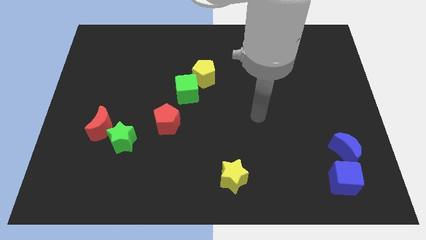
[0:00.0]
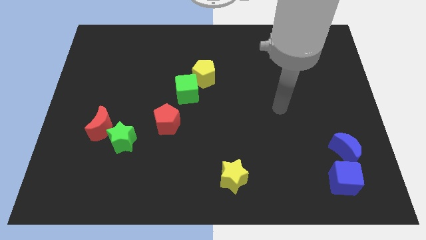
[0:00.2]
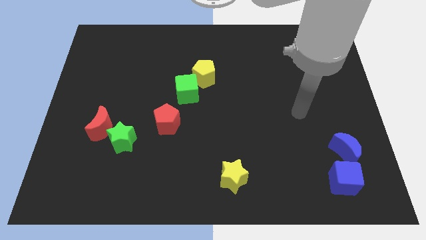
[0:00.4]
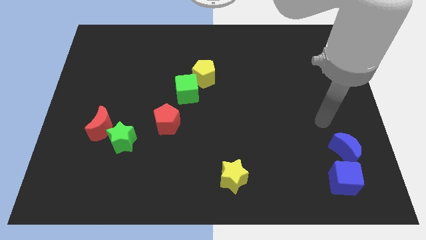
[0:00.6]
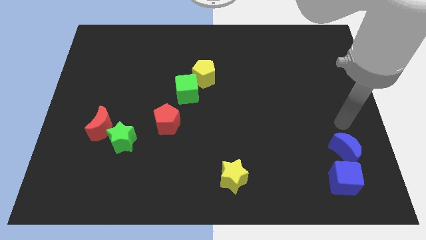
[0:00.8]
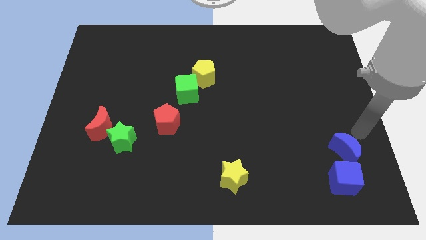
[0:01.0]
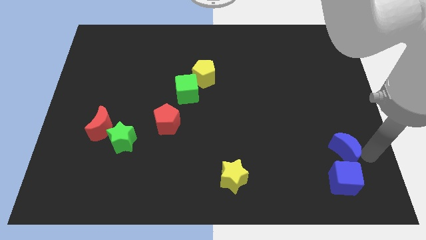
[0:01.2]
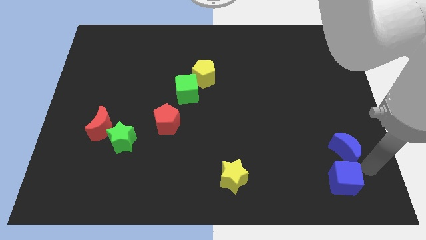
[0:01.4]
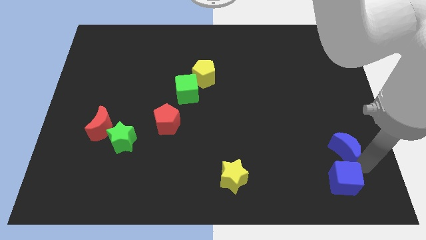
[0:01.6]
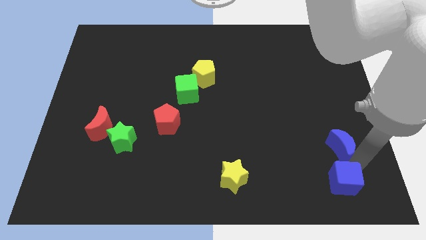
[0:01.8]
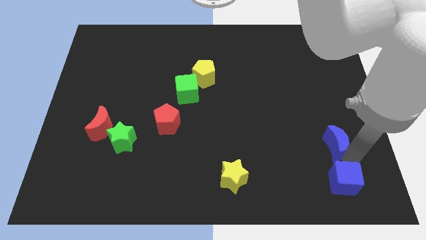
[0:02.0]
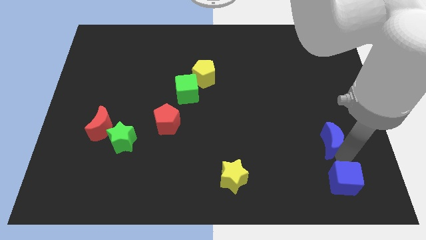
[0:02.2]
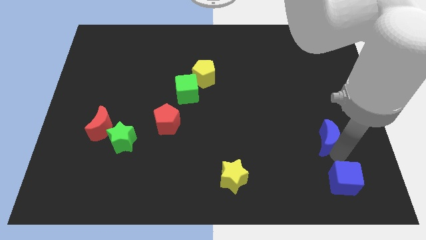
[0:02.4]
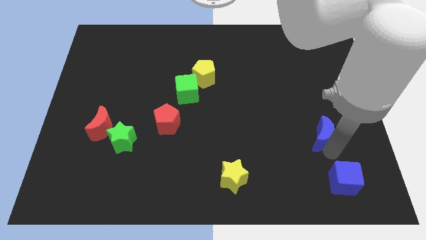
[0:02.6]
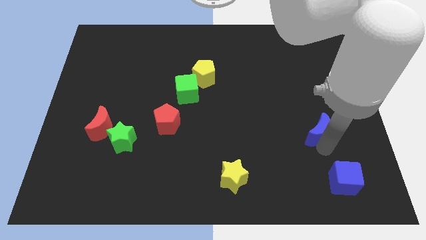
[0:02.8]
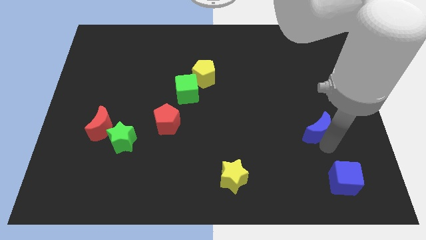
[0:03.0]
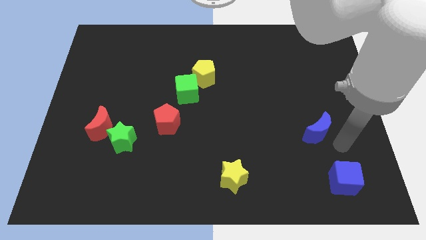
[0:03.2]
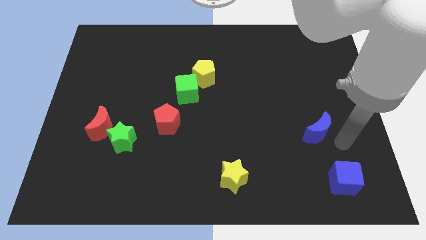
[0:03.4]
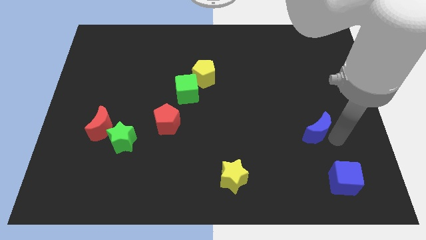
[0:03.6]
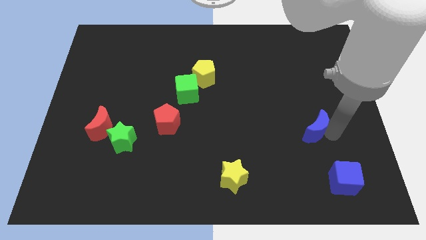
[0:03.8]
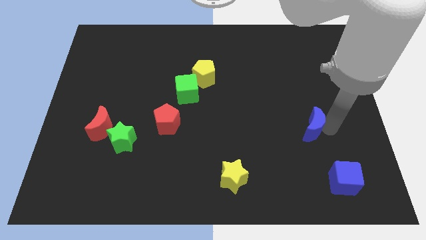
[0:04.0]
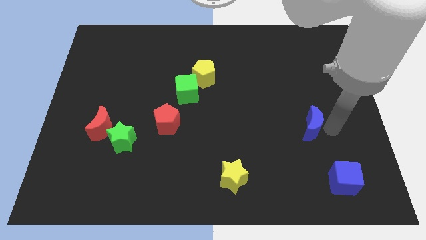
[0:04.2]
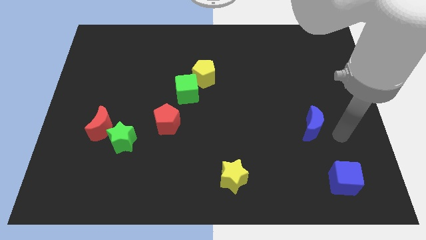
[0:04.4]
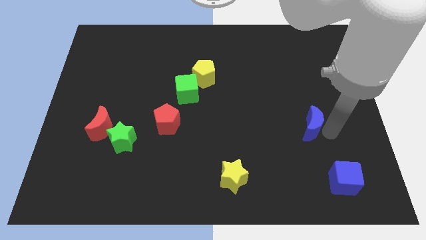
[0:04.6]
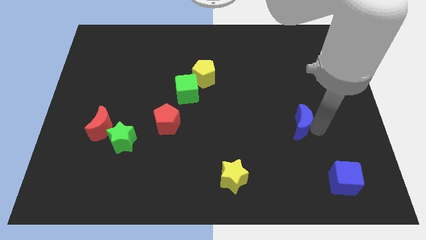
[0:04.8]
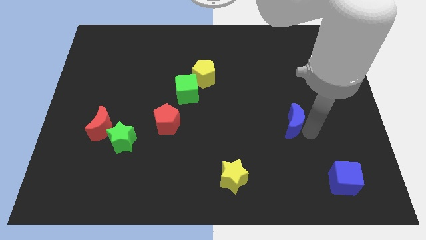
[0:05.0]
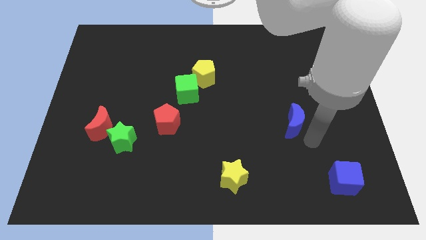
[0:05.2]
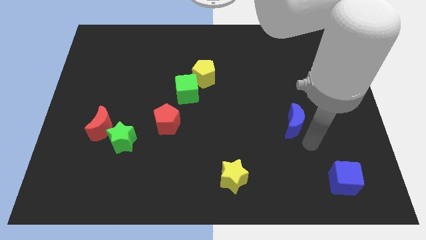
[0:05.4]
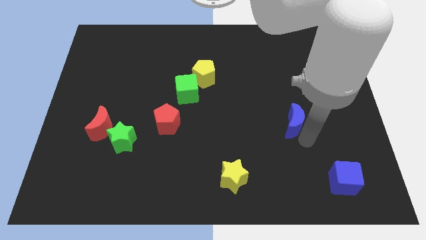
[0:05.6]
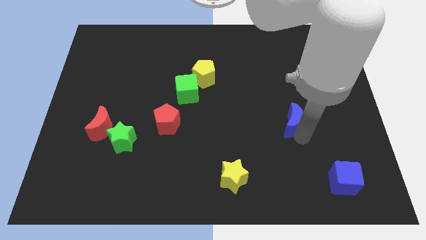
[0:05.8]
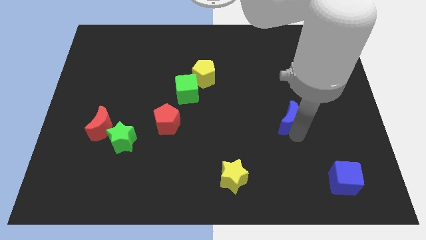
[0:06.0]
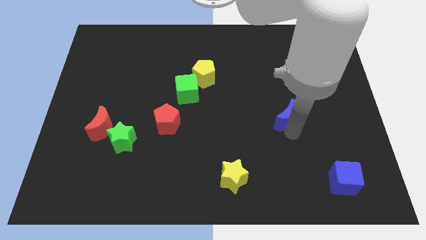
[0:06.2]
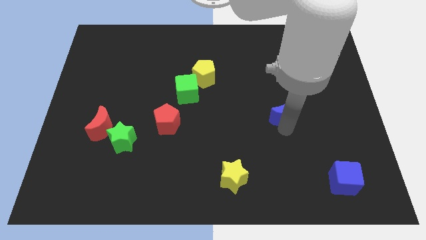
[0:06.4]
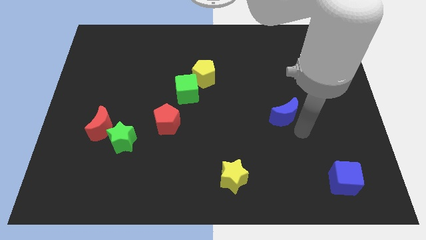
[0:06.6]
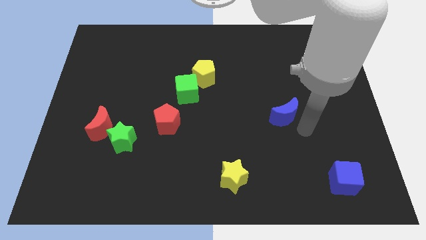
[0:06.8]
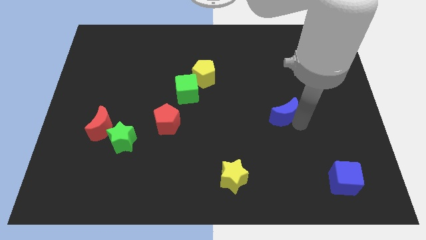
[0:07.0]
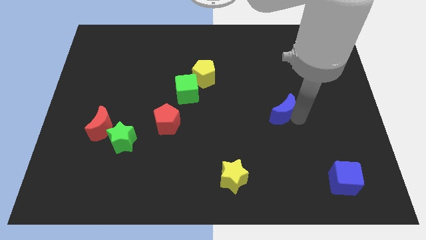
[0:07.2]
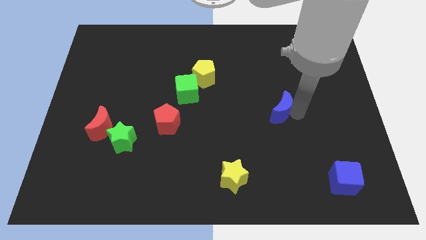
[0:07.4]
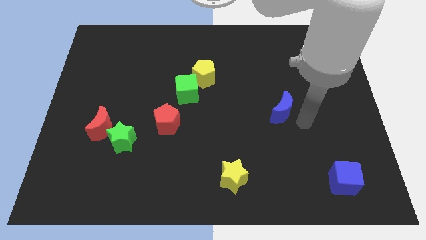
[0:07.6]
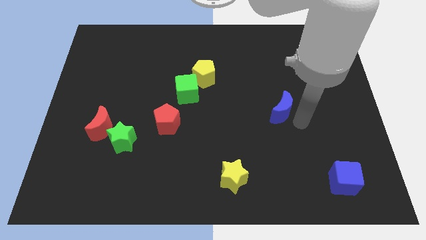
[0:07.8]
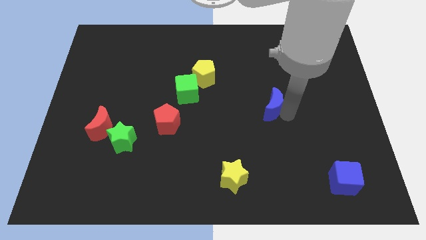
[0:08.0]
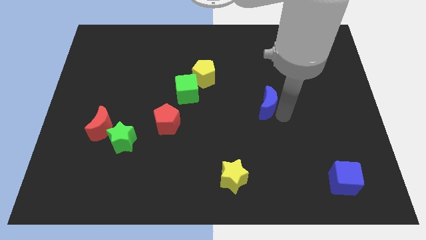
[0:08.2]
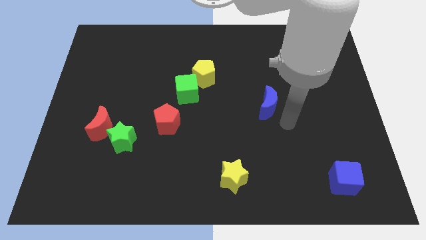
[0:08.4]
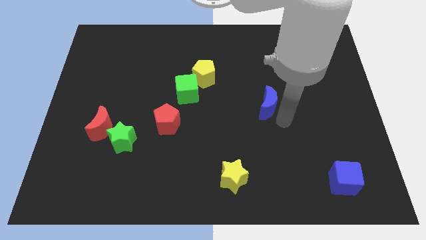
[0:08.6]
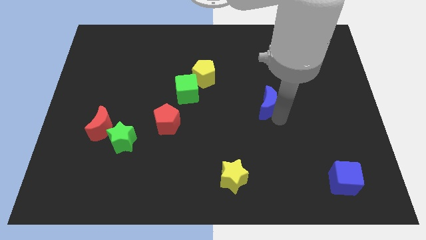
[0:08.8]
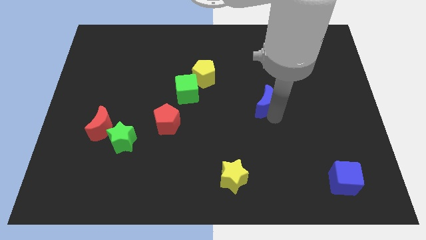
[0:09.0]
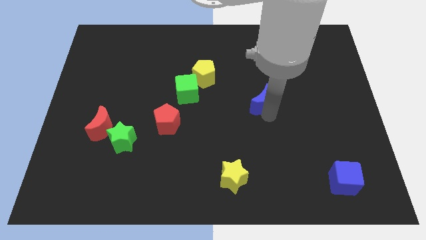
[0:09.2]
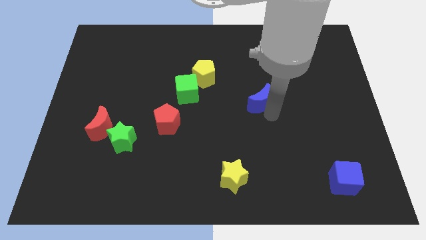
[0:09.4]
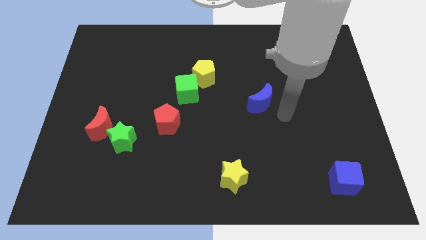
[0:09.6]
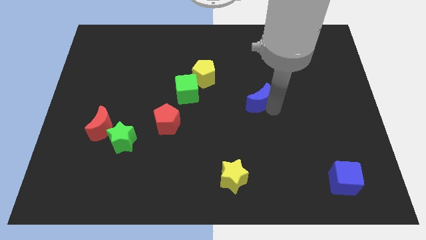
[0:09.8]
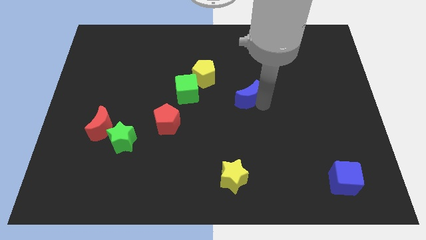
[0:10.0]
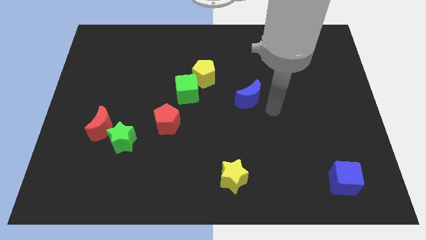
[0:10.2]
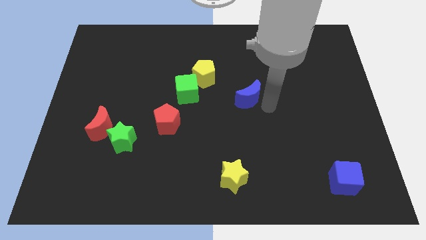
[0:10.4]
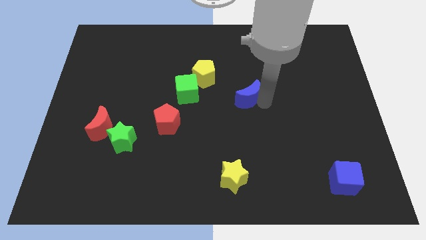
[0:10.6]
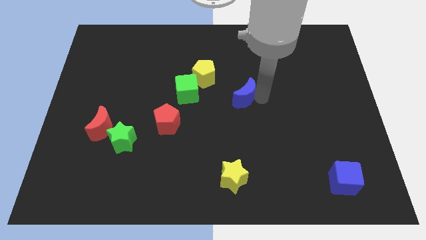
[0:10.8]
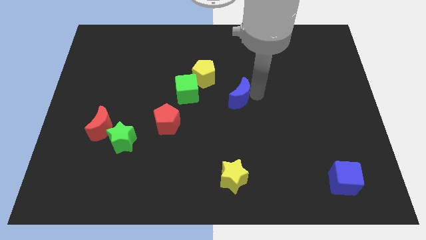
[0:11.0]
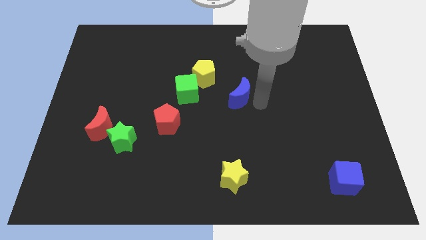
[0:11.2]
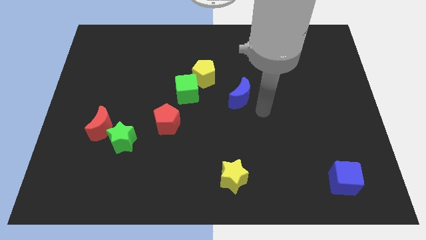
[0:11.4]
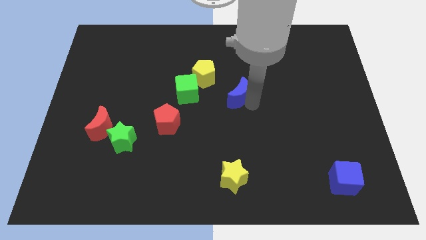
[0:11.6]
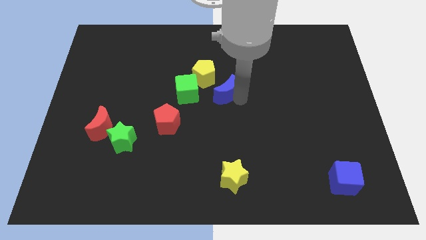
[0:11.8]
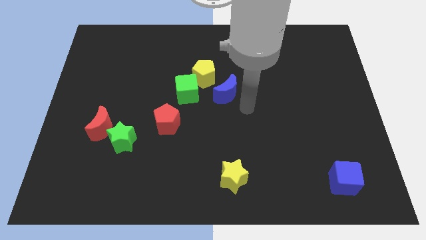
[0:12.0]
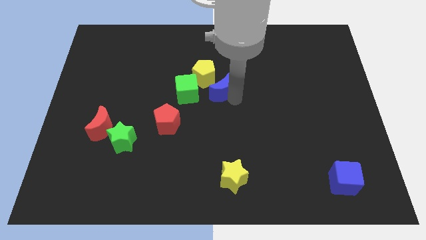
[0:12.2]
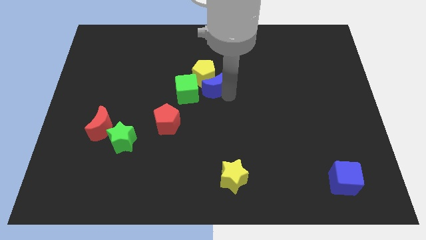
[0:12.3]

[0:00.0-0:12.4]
move the blue moon to the yellow pentagon

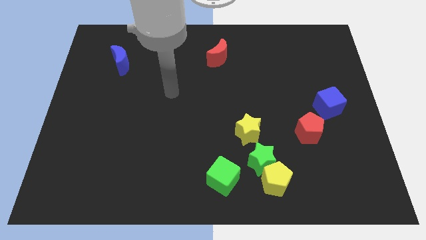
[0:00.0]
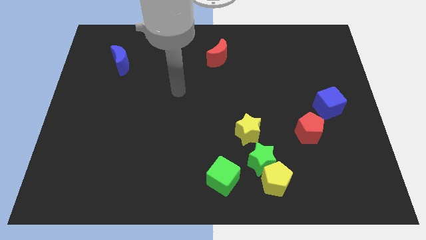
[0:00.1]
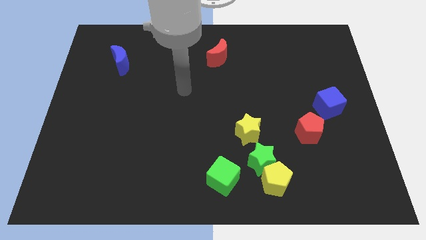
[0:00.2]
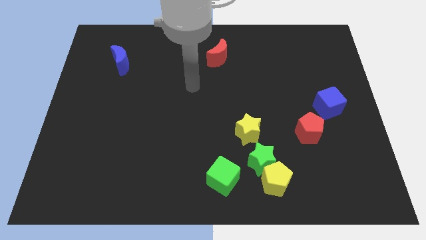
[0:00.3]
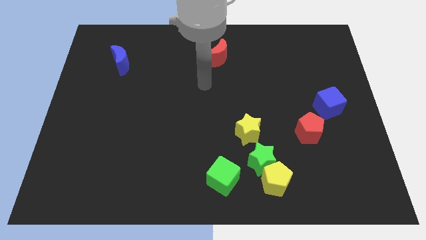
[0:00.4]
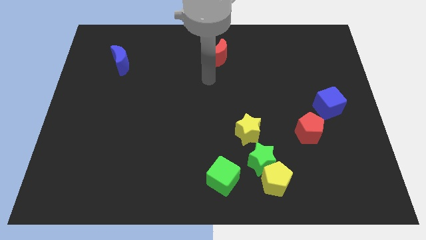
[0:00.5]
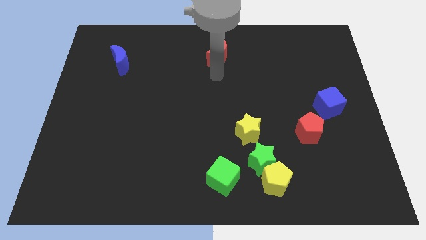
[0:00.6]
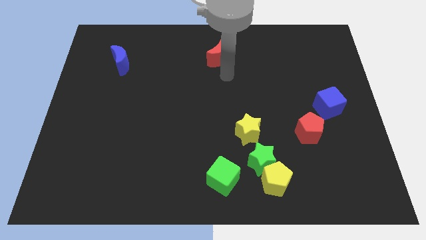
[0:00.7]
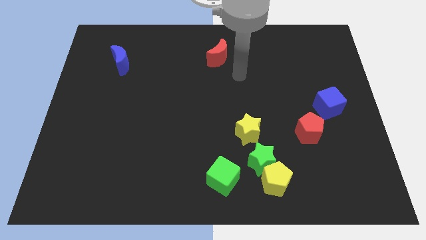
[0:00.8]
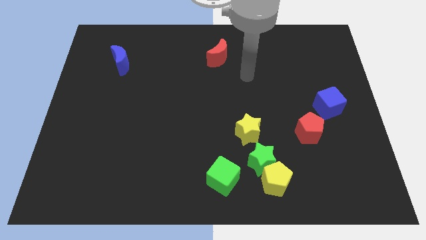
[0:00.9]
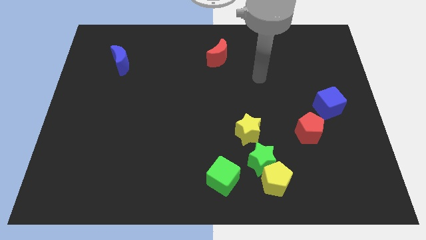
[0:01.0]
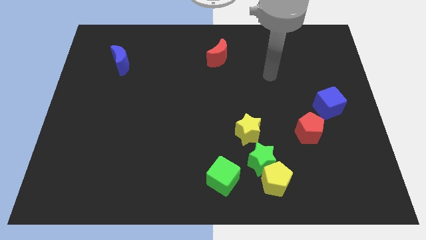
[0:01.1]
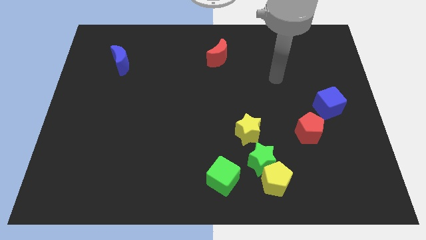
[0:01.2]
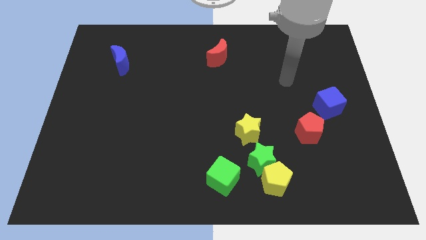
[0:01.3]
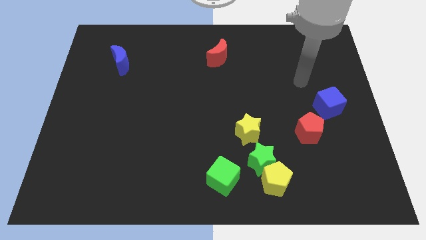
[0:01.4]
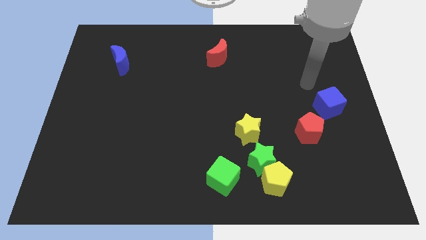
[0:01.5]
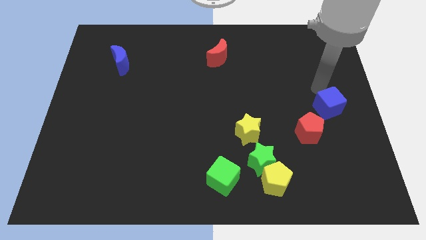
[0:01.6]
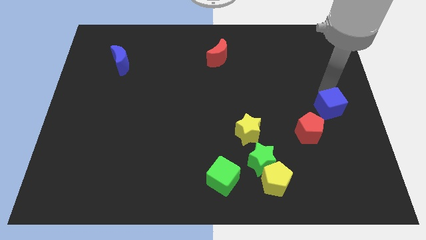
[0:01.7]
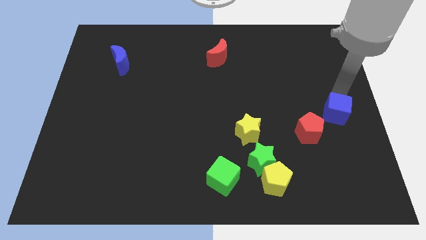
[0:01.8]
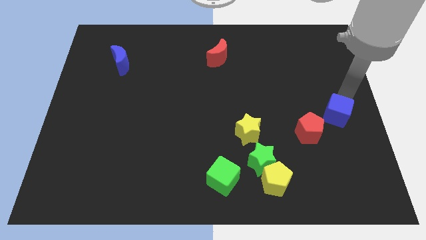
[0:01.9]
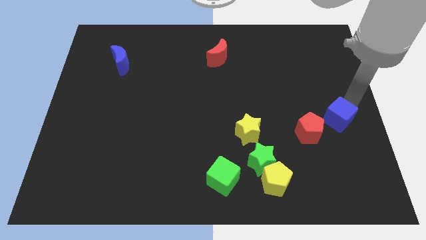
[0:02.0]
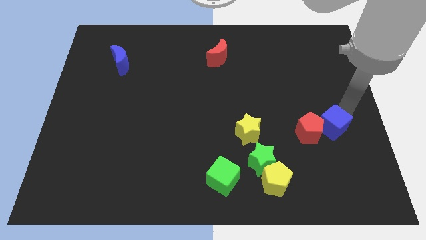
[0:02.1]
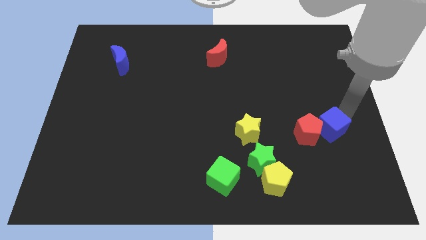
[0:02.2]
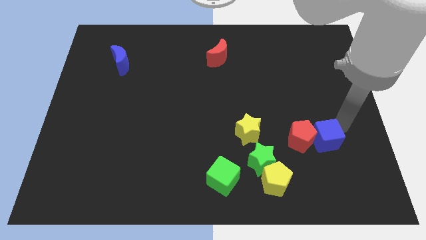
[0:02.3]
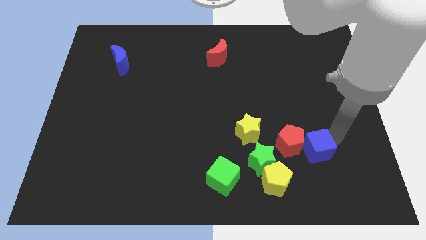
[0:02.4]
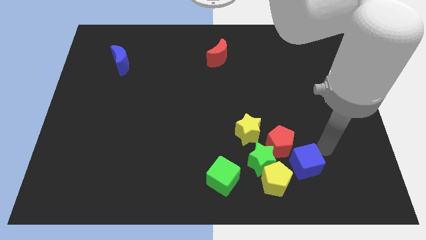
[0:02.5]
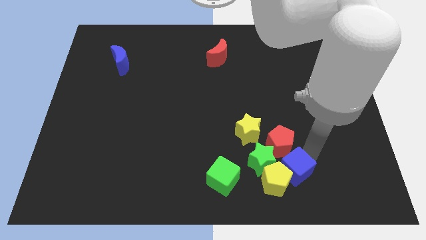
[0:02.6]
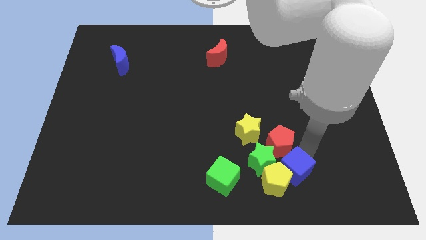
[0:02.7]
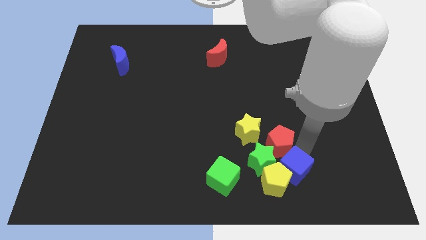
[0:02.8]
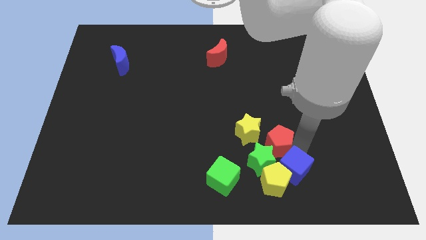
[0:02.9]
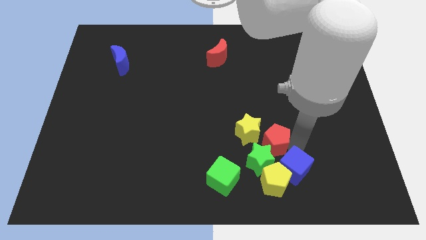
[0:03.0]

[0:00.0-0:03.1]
slide the red pentagon close to the yellow star
